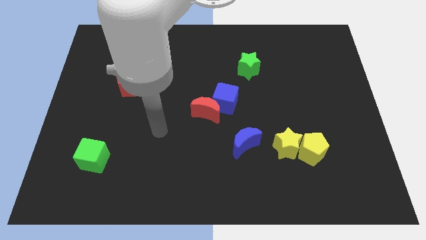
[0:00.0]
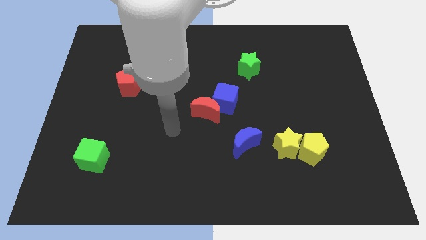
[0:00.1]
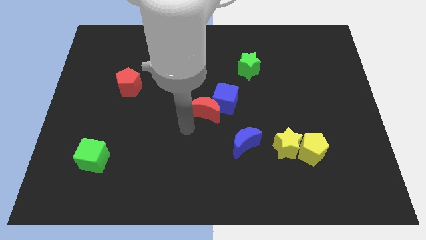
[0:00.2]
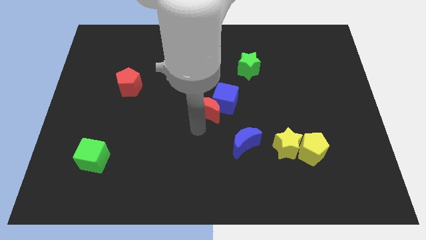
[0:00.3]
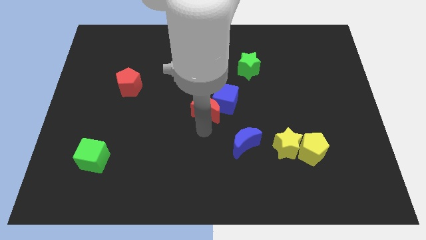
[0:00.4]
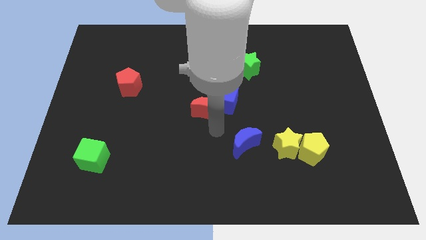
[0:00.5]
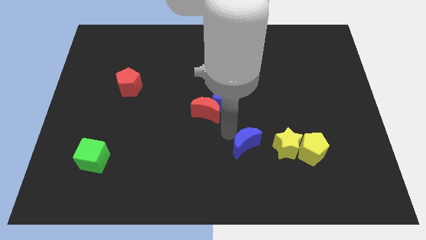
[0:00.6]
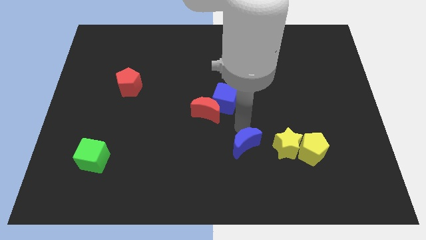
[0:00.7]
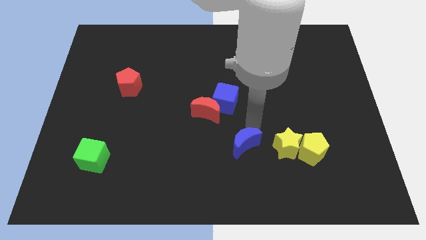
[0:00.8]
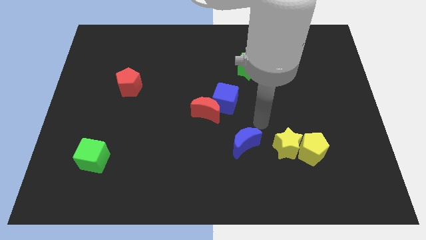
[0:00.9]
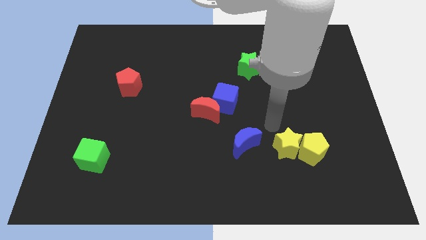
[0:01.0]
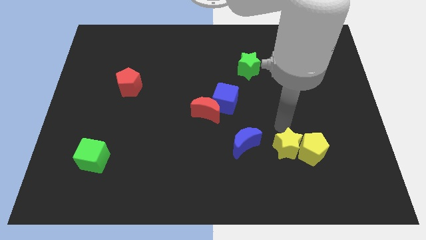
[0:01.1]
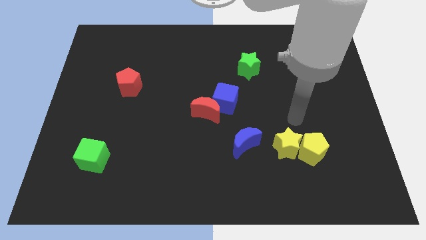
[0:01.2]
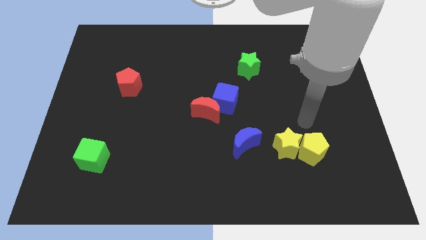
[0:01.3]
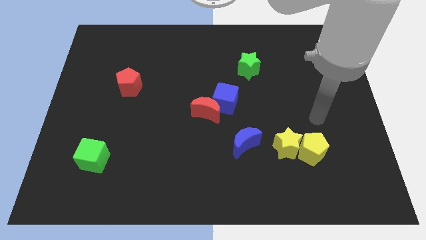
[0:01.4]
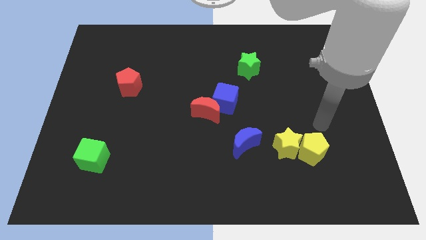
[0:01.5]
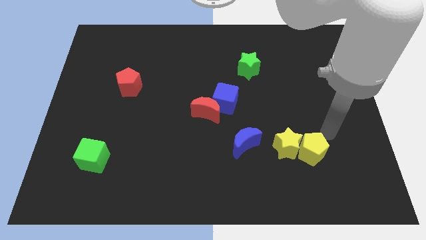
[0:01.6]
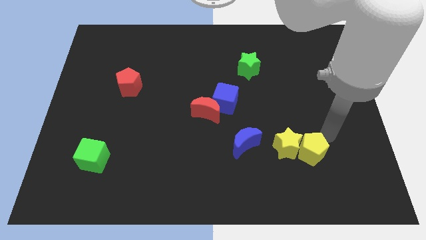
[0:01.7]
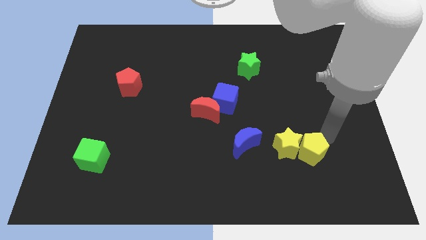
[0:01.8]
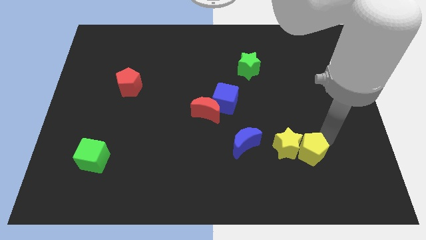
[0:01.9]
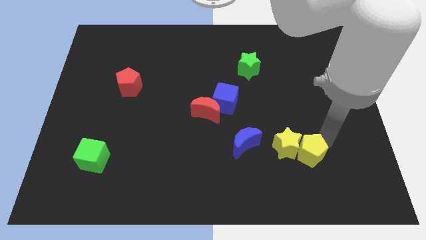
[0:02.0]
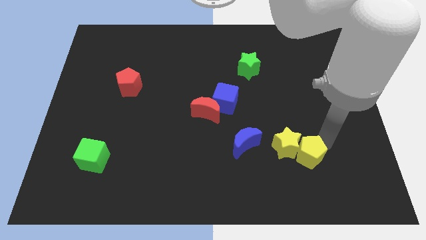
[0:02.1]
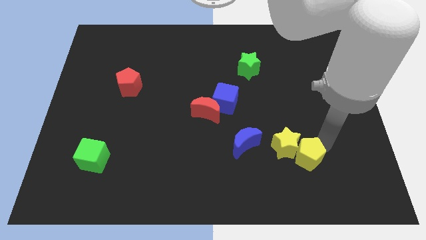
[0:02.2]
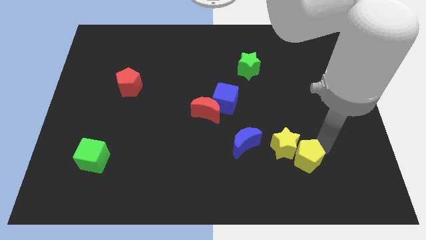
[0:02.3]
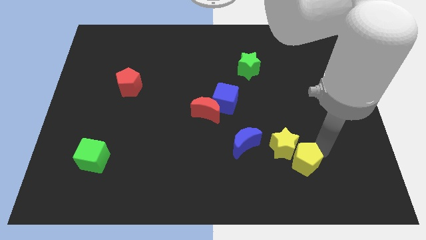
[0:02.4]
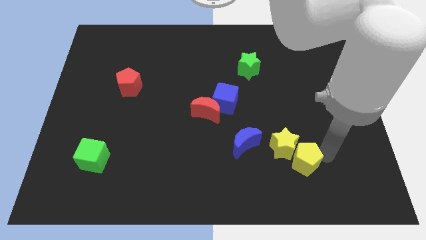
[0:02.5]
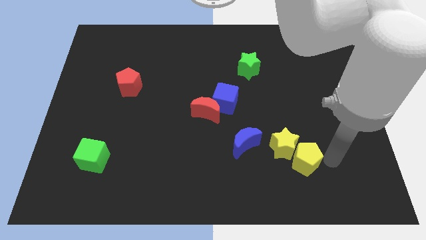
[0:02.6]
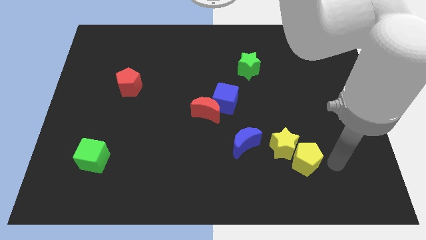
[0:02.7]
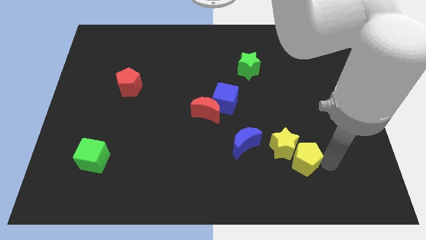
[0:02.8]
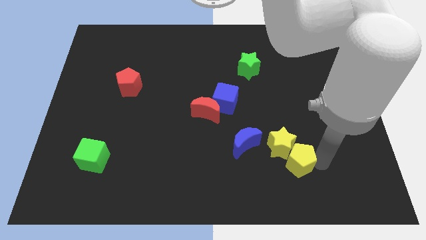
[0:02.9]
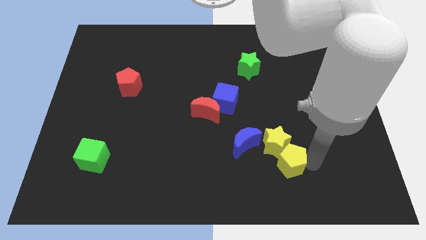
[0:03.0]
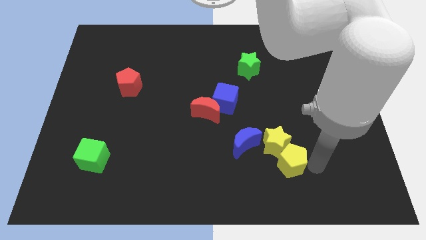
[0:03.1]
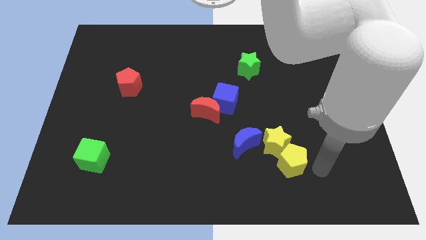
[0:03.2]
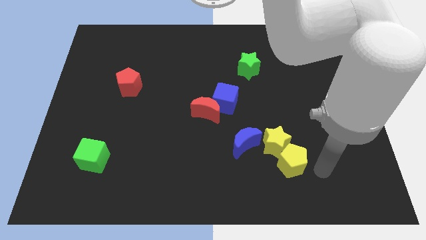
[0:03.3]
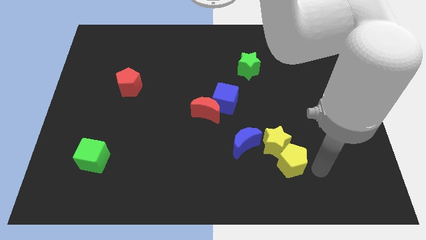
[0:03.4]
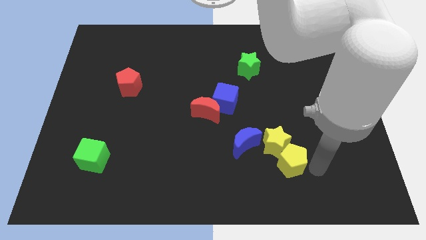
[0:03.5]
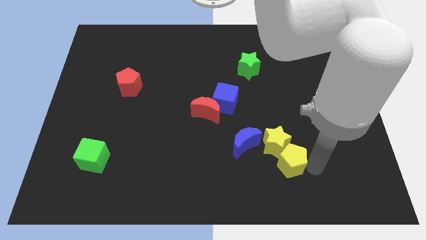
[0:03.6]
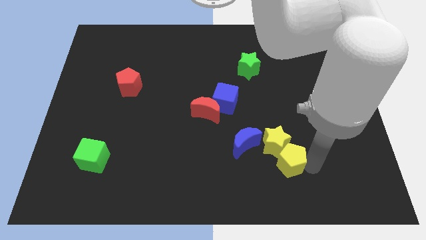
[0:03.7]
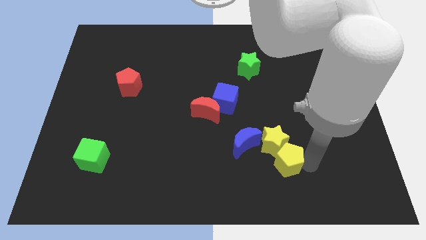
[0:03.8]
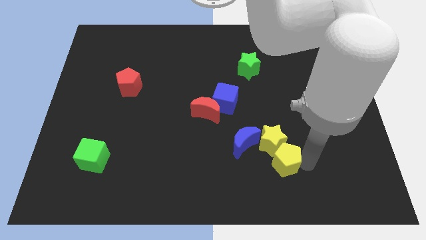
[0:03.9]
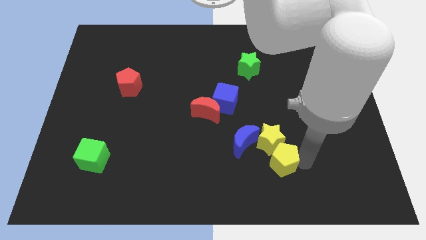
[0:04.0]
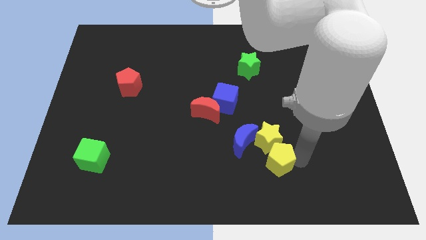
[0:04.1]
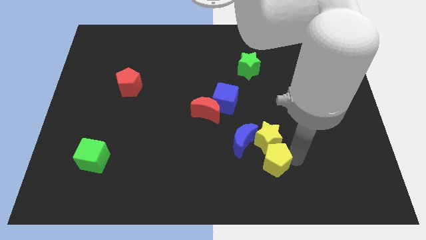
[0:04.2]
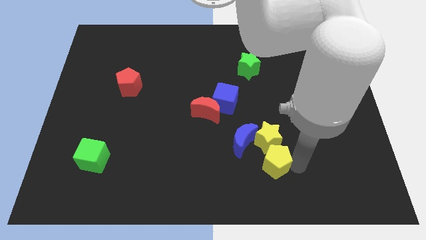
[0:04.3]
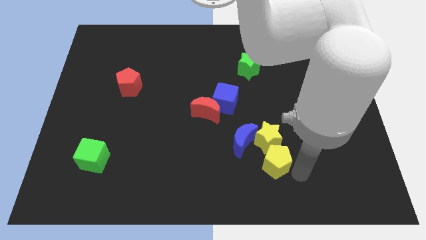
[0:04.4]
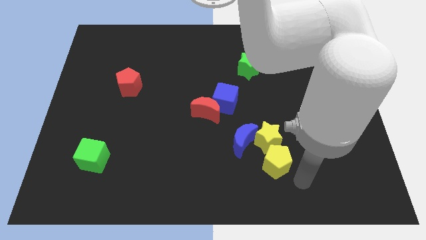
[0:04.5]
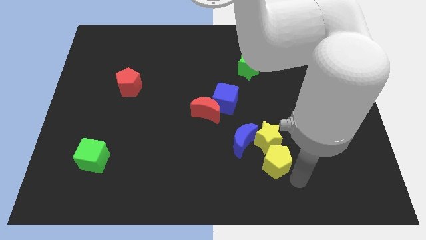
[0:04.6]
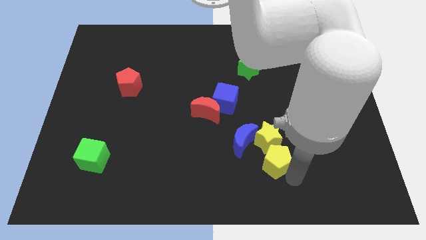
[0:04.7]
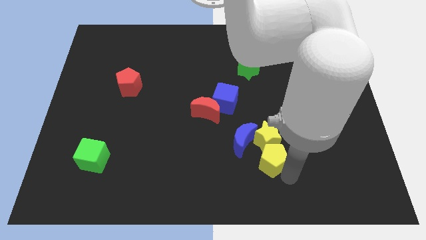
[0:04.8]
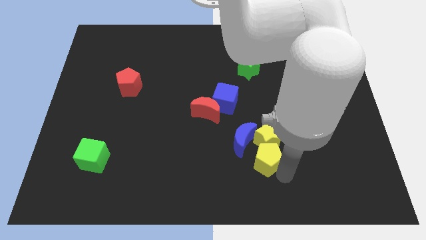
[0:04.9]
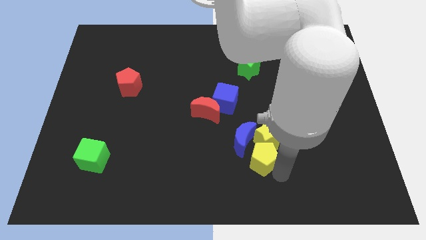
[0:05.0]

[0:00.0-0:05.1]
move the yellow pentagon close to the blue moon

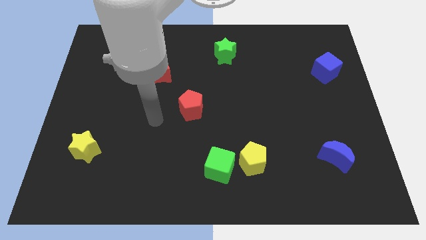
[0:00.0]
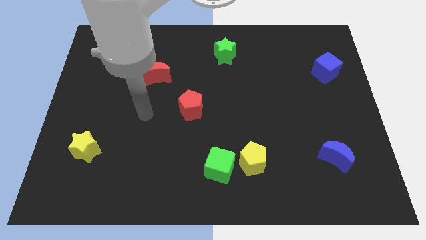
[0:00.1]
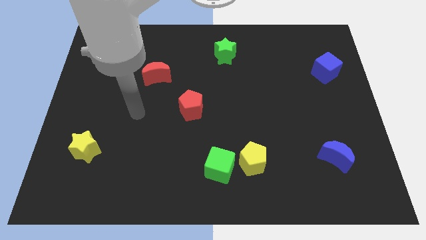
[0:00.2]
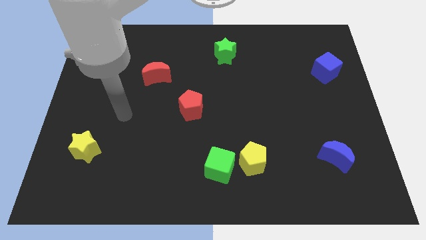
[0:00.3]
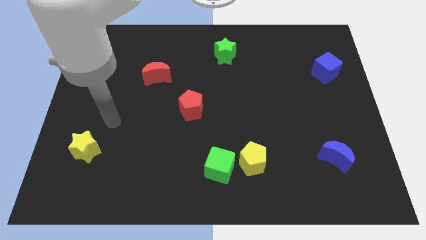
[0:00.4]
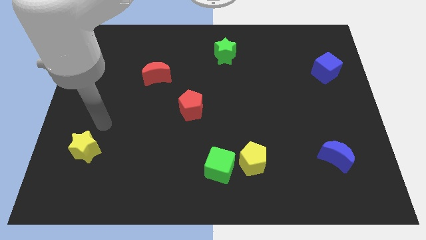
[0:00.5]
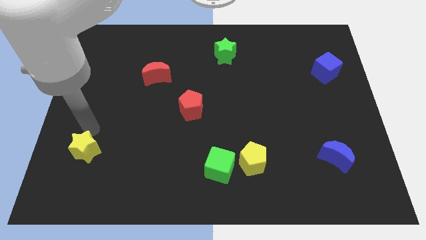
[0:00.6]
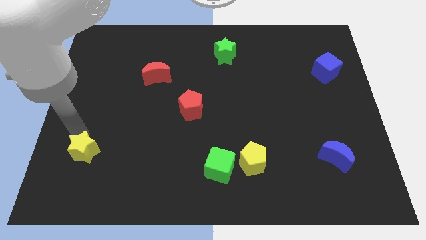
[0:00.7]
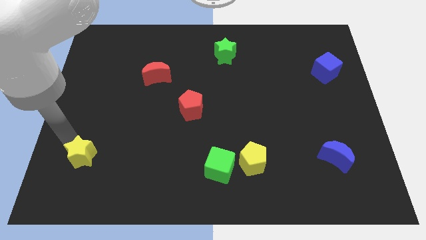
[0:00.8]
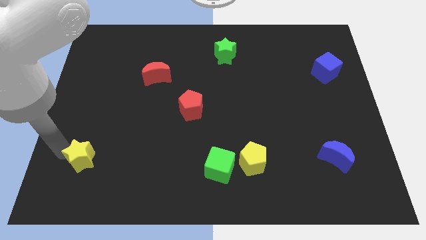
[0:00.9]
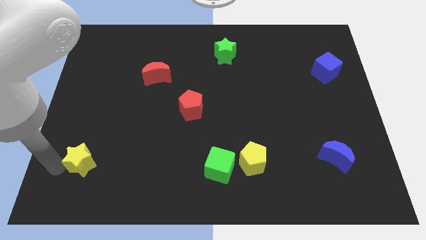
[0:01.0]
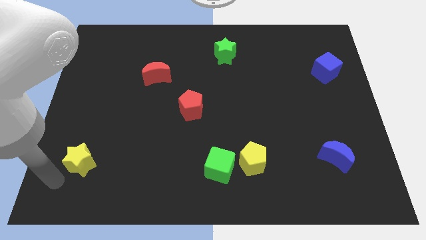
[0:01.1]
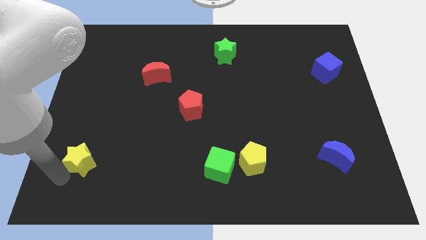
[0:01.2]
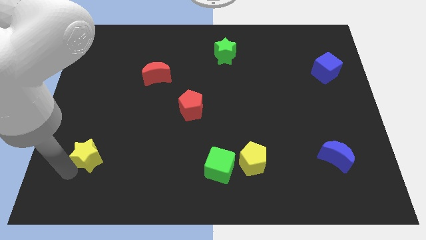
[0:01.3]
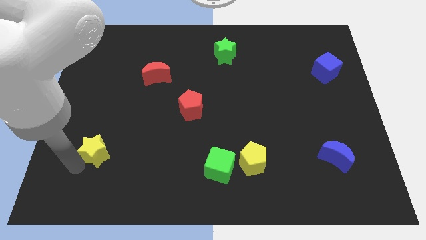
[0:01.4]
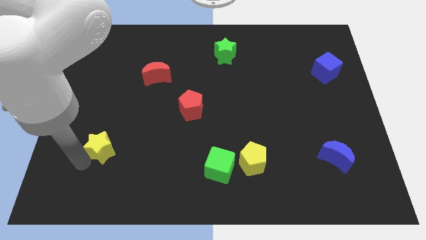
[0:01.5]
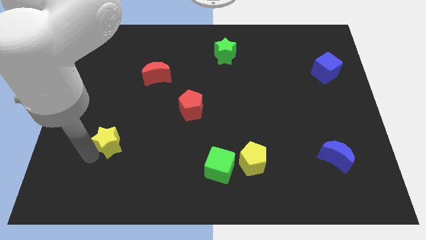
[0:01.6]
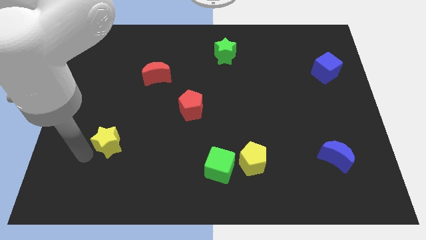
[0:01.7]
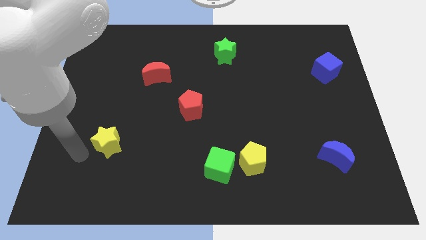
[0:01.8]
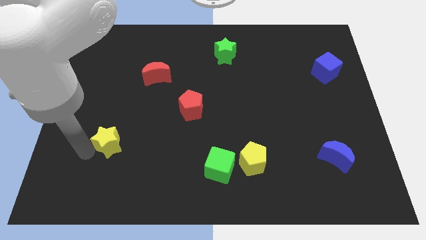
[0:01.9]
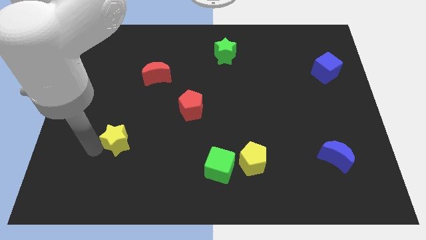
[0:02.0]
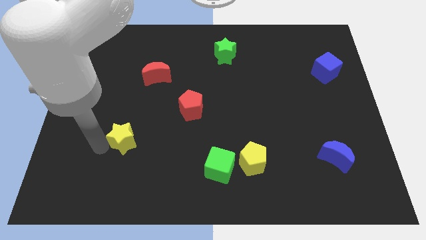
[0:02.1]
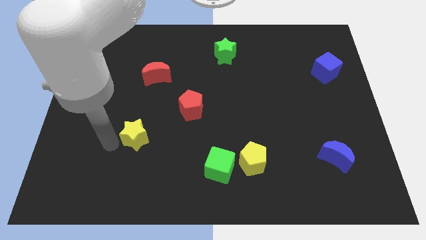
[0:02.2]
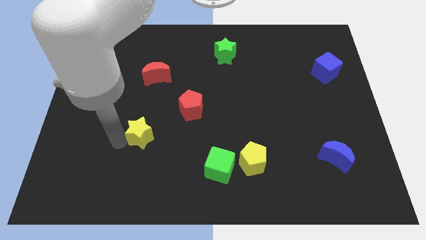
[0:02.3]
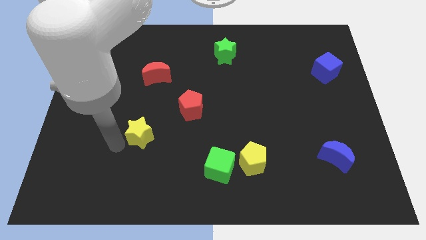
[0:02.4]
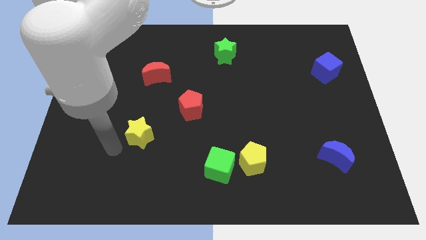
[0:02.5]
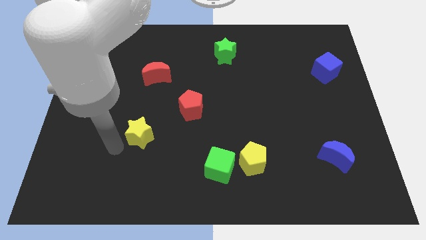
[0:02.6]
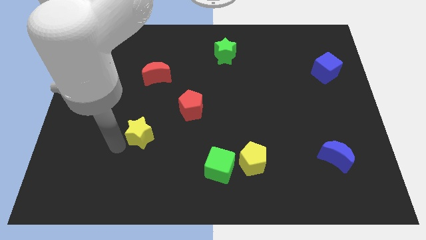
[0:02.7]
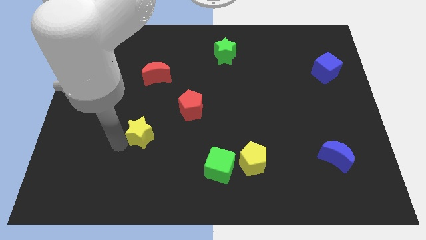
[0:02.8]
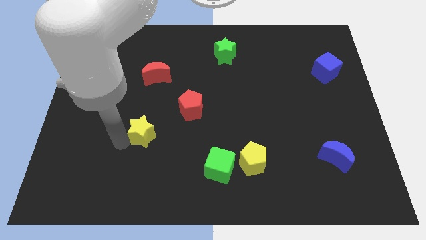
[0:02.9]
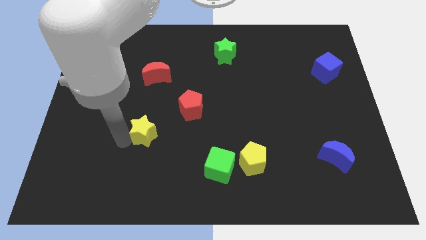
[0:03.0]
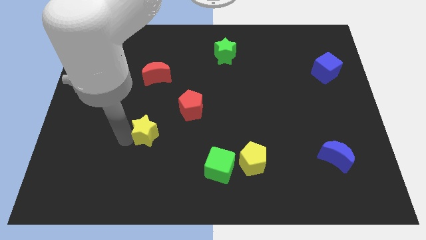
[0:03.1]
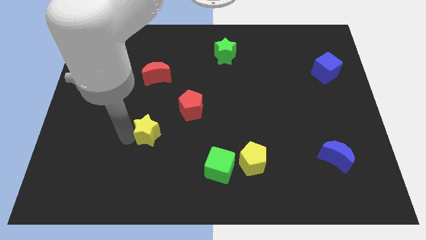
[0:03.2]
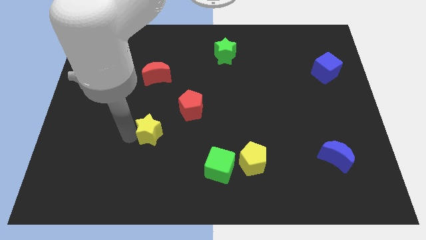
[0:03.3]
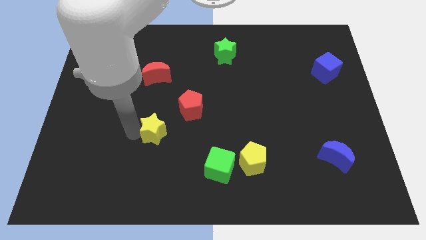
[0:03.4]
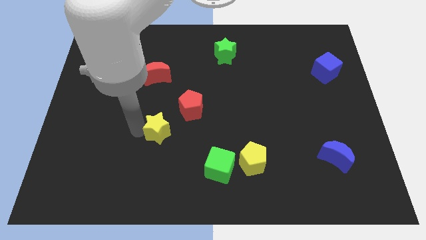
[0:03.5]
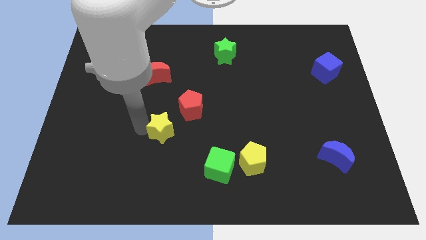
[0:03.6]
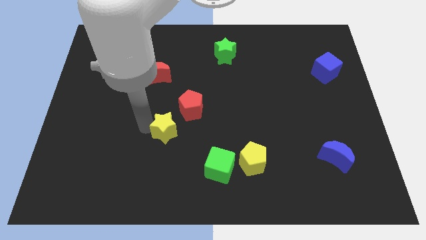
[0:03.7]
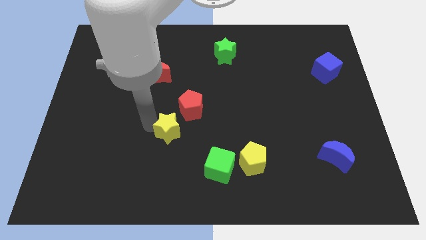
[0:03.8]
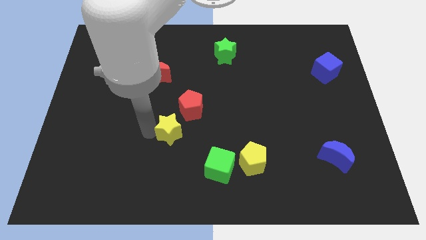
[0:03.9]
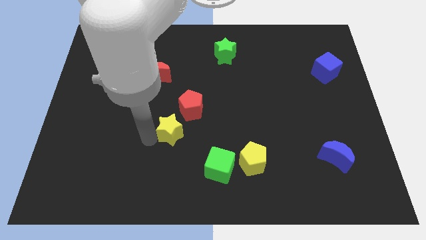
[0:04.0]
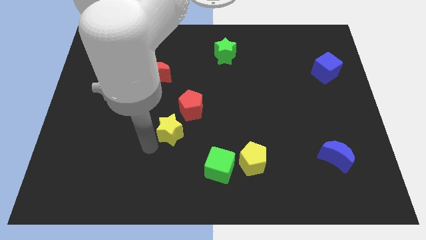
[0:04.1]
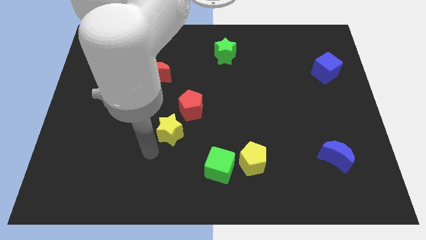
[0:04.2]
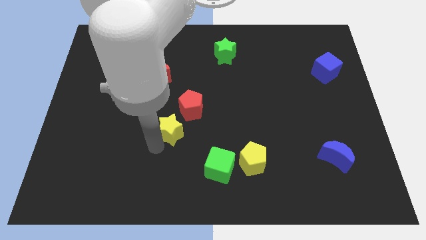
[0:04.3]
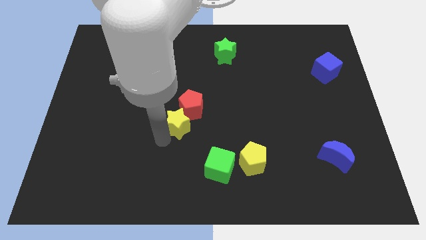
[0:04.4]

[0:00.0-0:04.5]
move the yellow star towards the red pentagon
